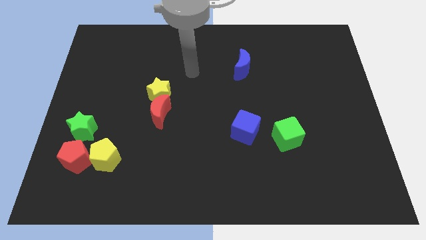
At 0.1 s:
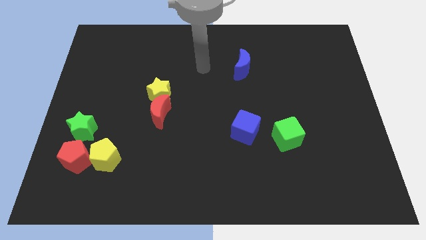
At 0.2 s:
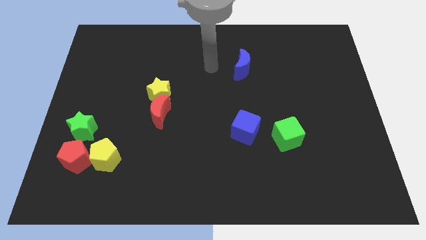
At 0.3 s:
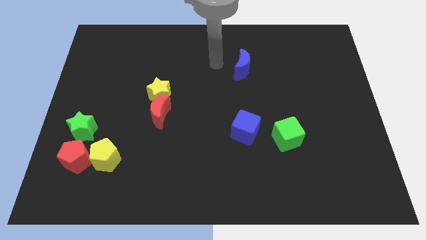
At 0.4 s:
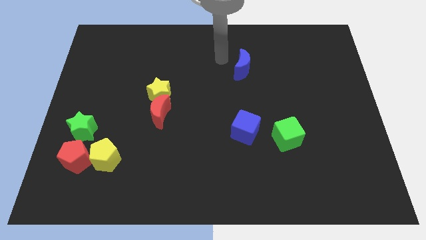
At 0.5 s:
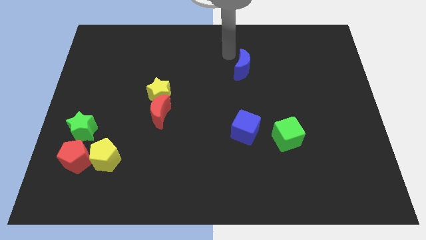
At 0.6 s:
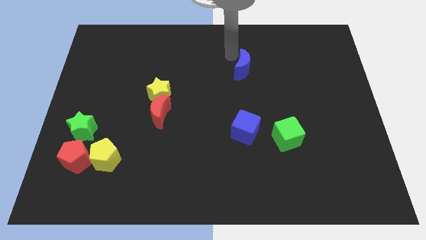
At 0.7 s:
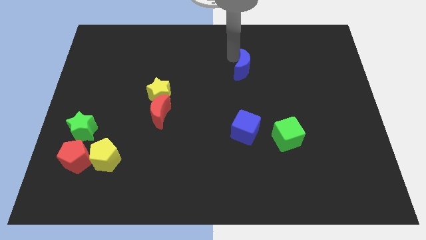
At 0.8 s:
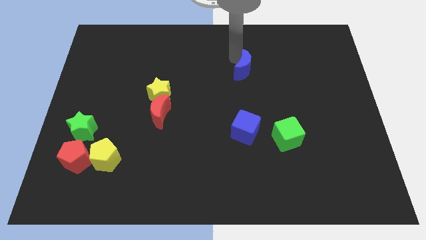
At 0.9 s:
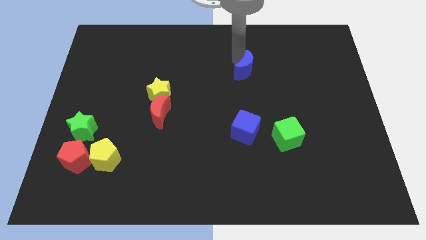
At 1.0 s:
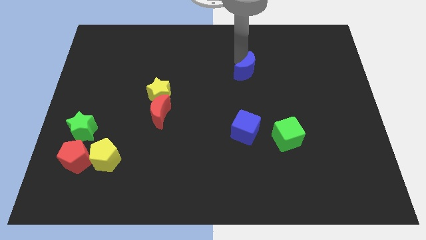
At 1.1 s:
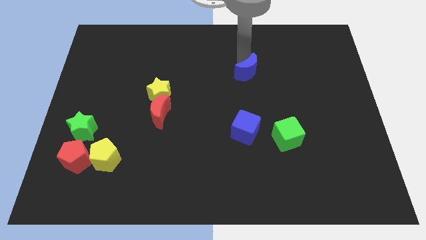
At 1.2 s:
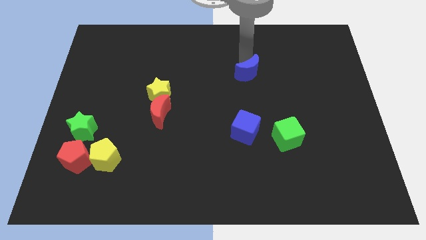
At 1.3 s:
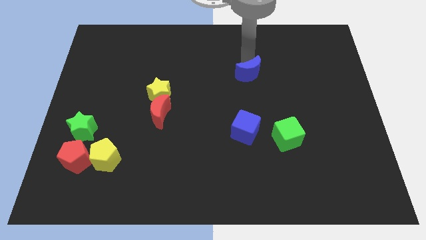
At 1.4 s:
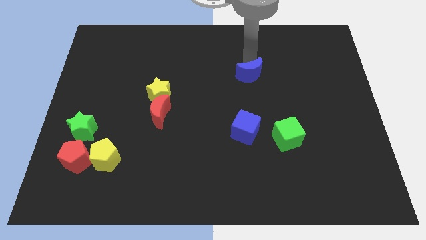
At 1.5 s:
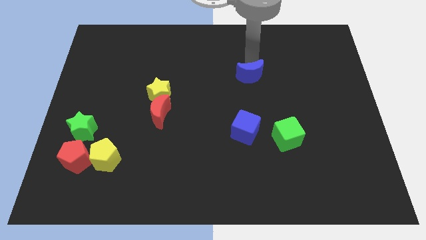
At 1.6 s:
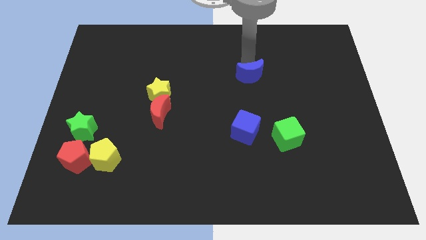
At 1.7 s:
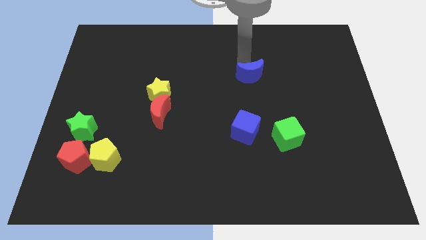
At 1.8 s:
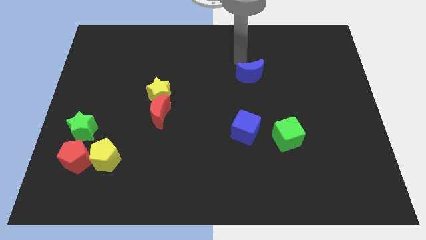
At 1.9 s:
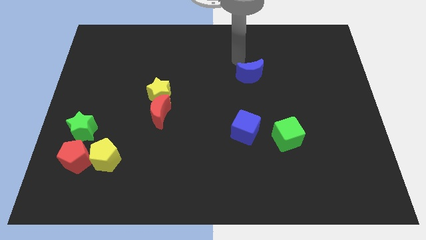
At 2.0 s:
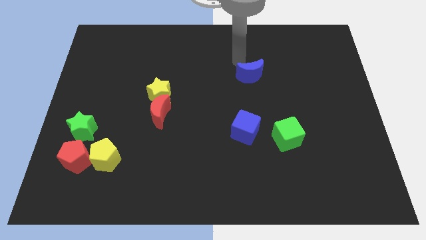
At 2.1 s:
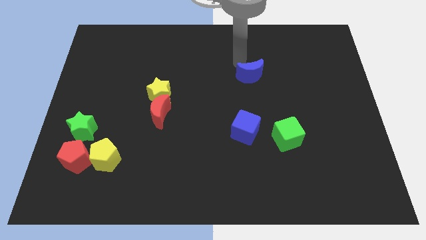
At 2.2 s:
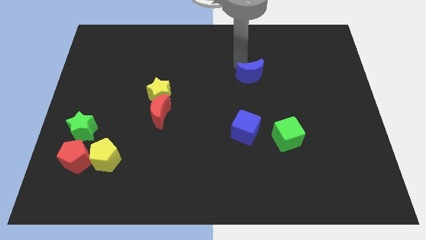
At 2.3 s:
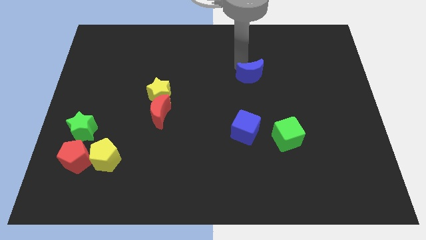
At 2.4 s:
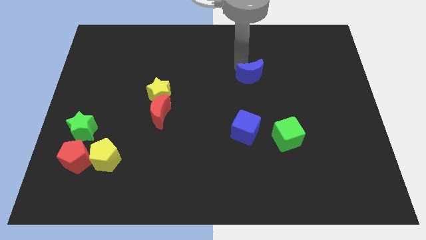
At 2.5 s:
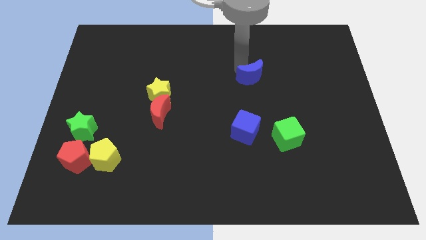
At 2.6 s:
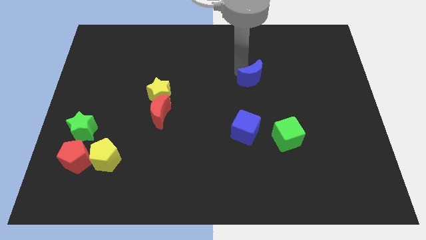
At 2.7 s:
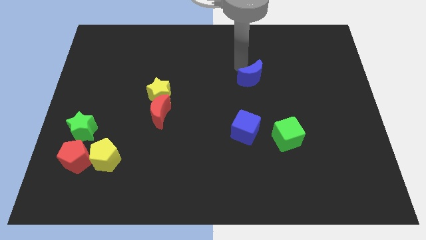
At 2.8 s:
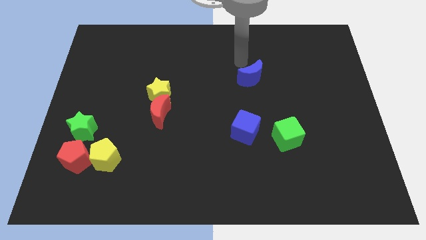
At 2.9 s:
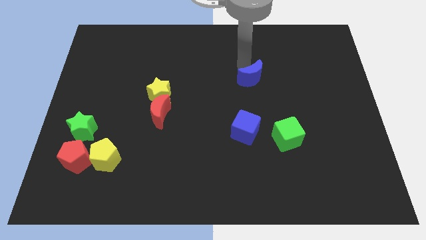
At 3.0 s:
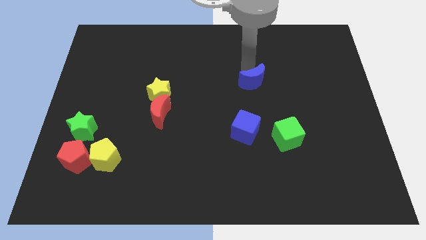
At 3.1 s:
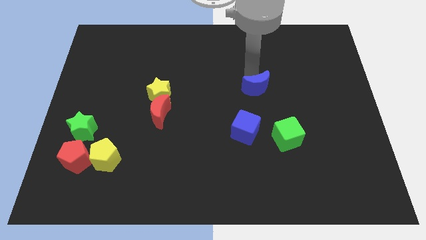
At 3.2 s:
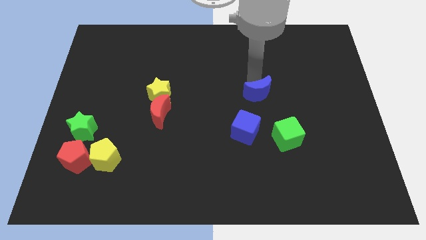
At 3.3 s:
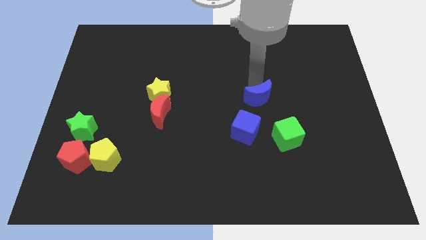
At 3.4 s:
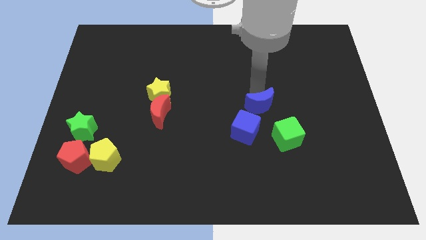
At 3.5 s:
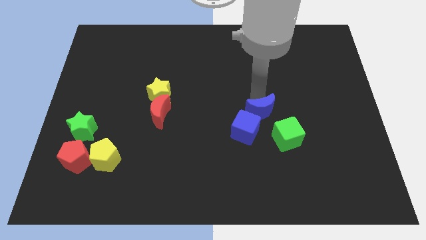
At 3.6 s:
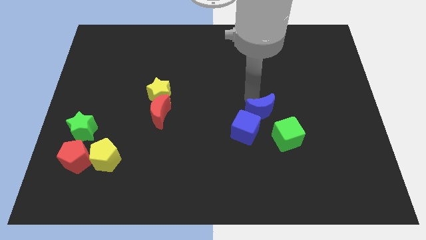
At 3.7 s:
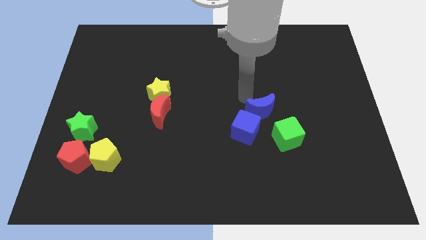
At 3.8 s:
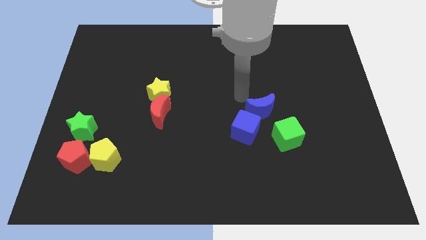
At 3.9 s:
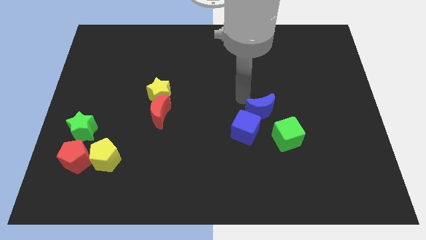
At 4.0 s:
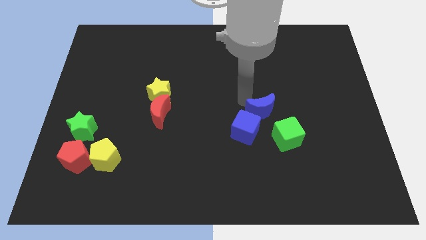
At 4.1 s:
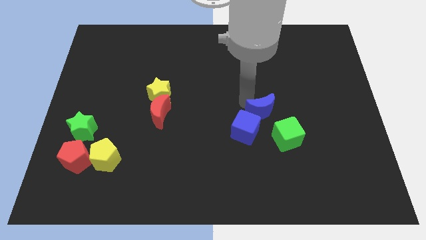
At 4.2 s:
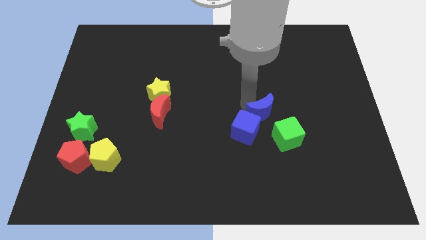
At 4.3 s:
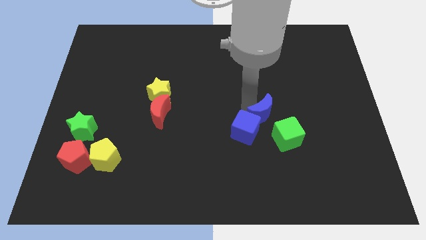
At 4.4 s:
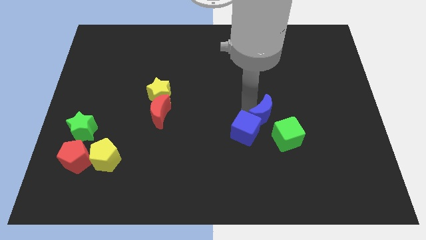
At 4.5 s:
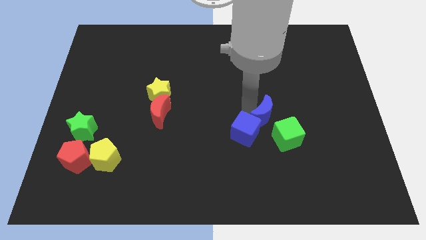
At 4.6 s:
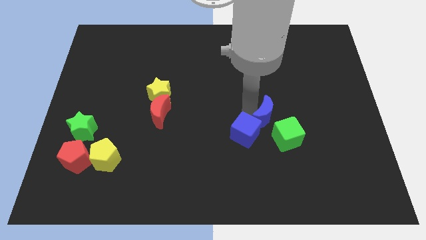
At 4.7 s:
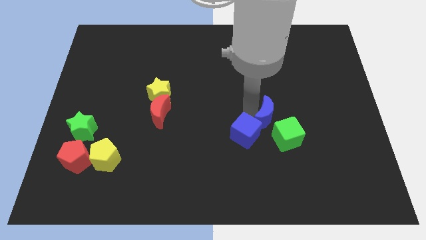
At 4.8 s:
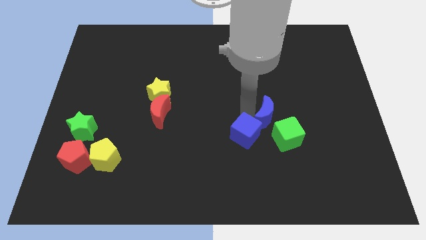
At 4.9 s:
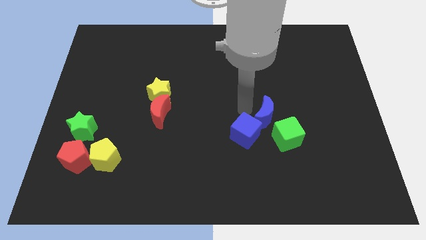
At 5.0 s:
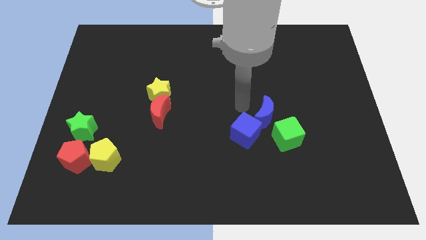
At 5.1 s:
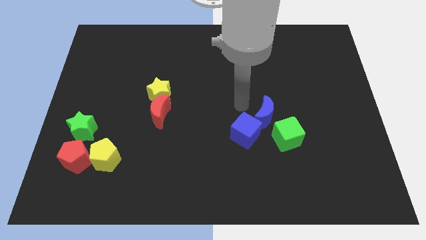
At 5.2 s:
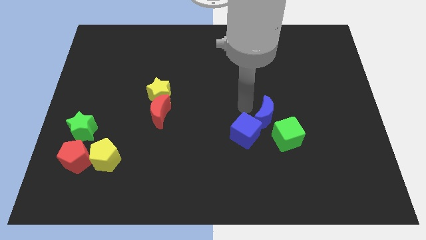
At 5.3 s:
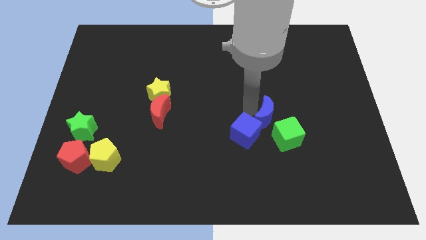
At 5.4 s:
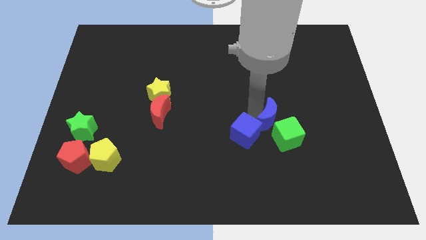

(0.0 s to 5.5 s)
put the blue moon close to the green cube
